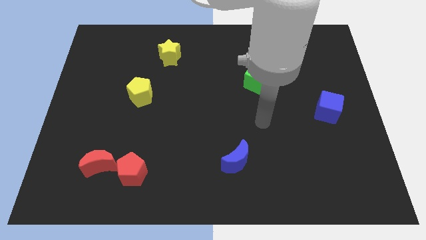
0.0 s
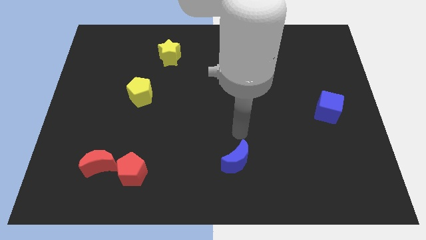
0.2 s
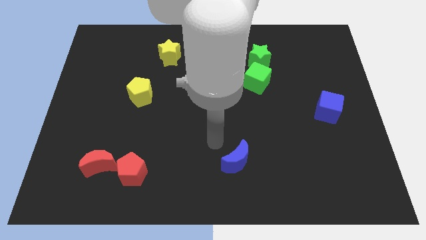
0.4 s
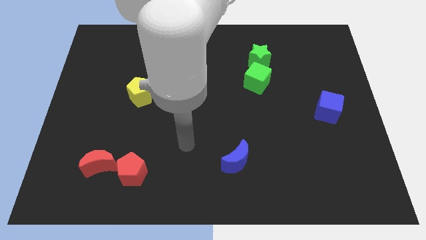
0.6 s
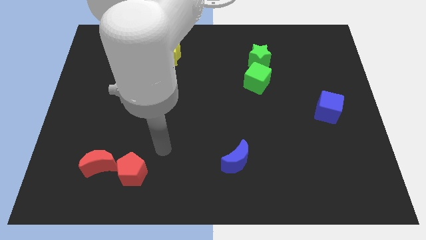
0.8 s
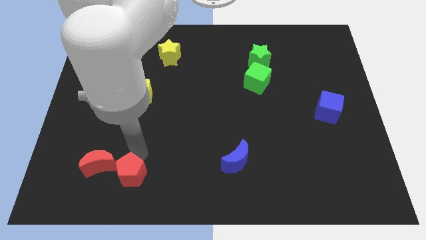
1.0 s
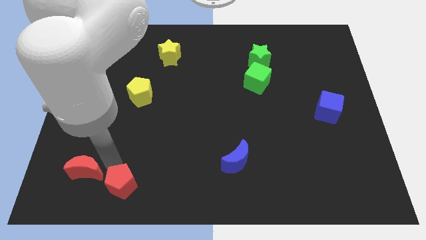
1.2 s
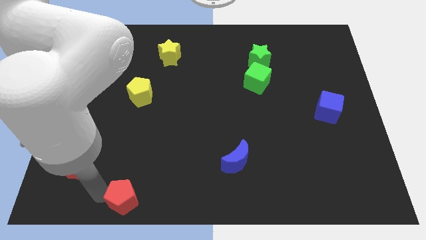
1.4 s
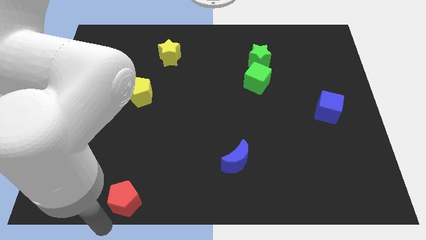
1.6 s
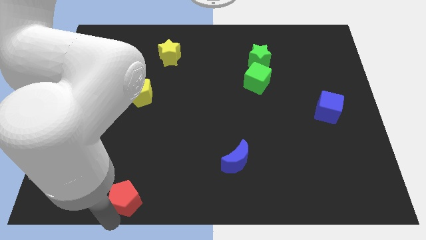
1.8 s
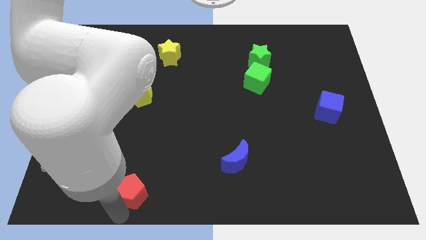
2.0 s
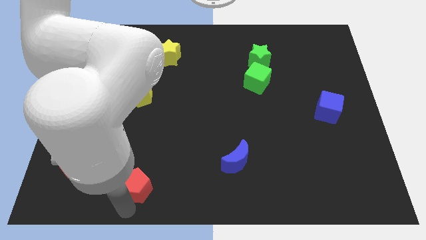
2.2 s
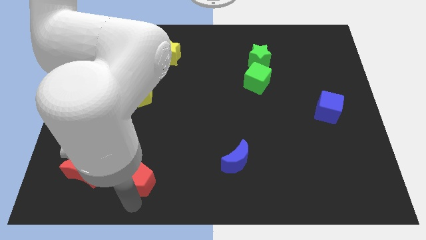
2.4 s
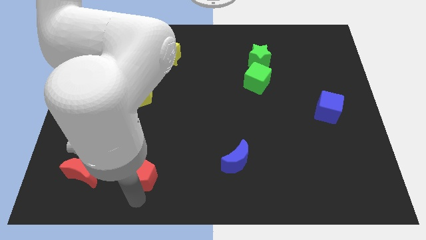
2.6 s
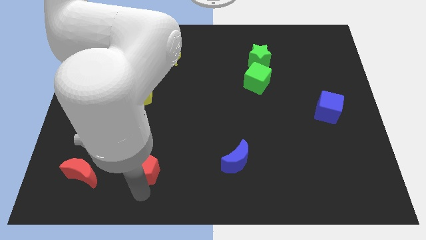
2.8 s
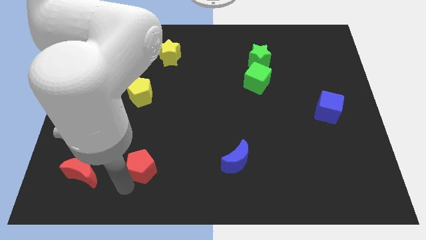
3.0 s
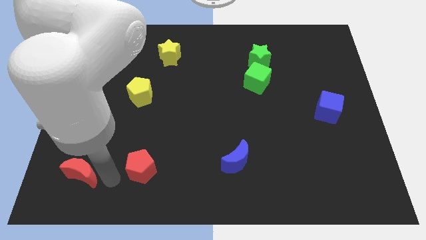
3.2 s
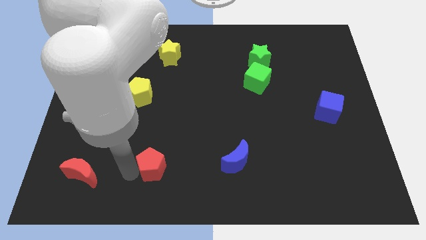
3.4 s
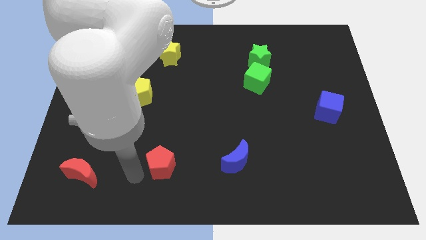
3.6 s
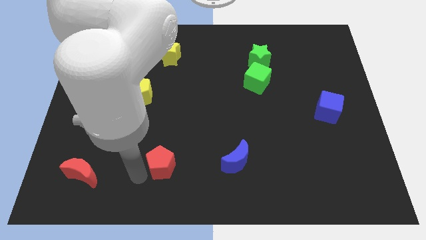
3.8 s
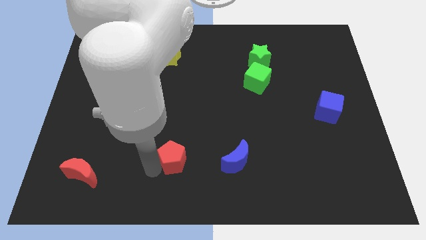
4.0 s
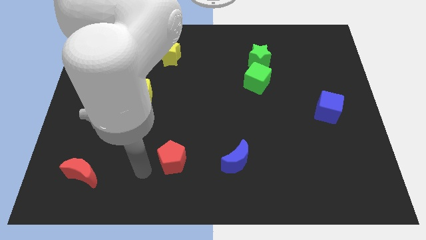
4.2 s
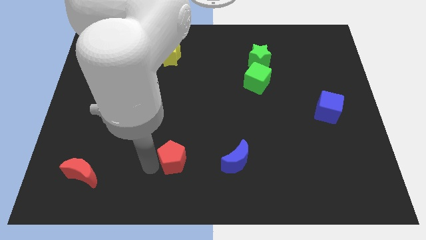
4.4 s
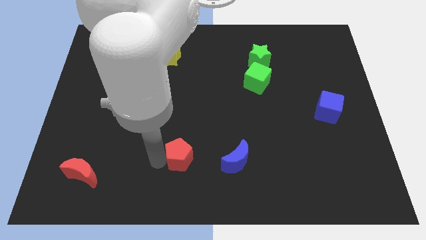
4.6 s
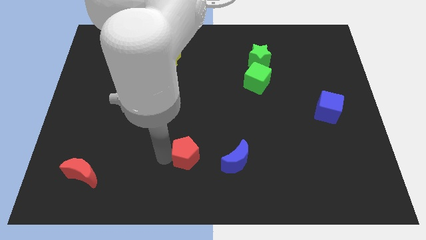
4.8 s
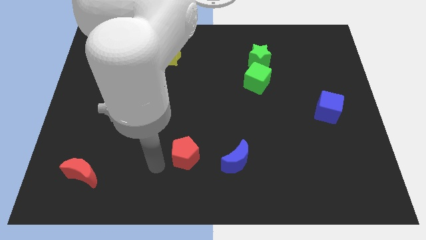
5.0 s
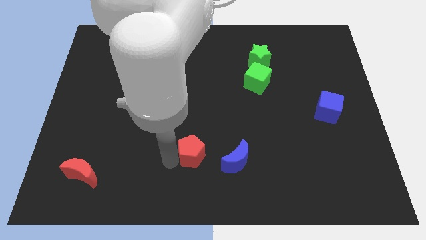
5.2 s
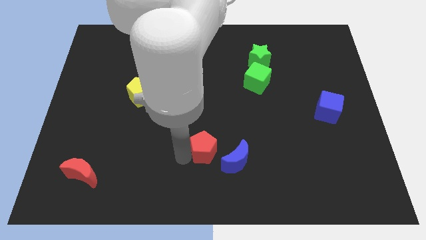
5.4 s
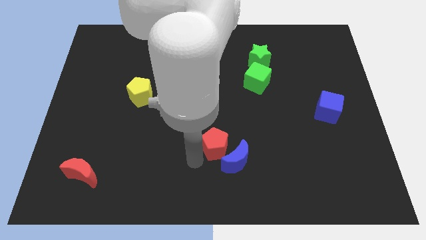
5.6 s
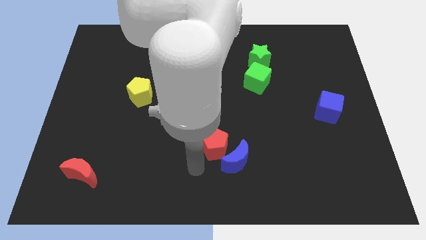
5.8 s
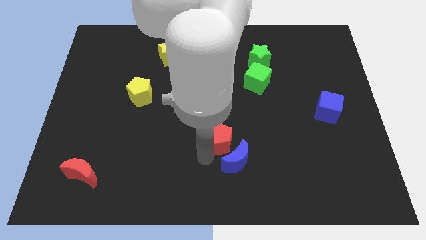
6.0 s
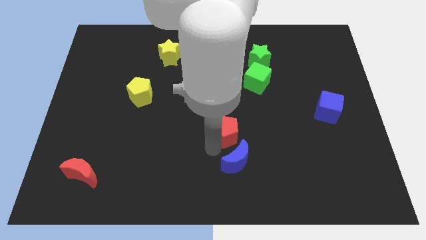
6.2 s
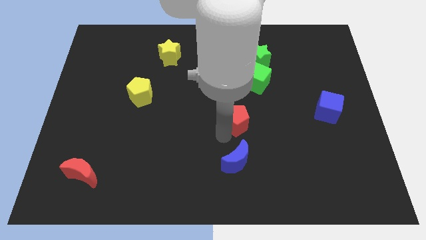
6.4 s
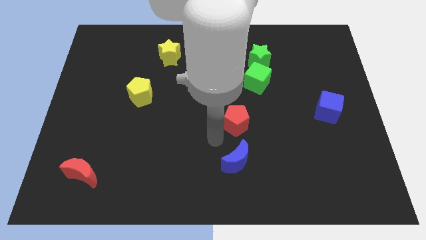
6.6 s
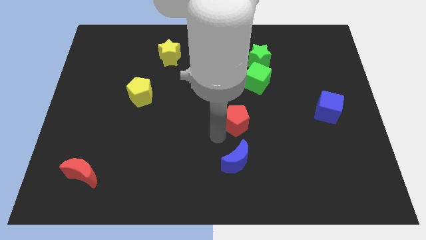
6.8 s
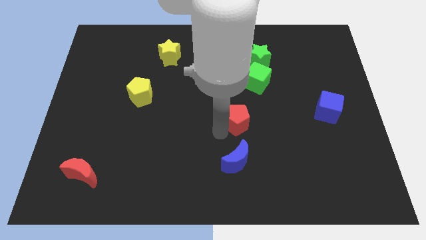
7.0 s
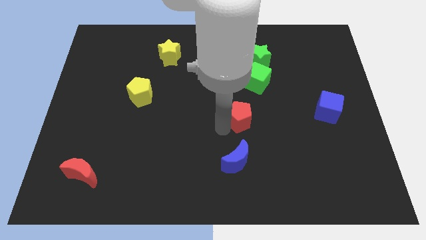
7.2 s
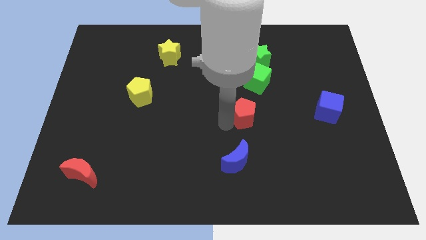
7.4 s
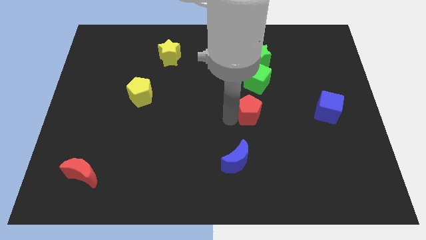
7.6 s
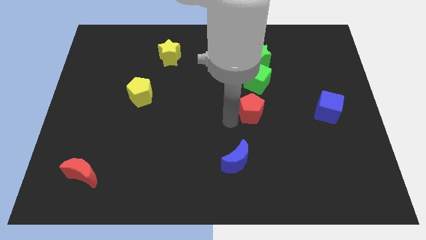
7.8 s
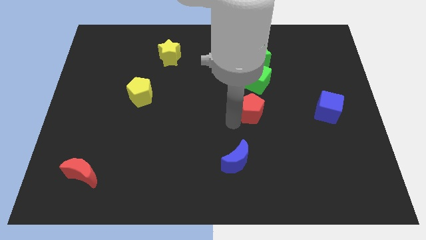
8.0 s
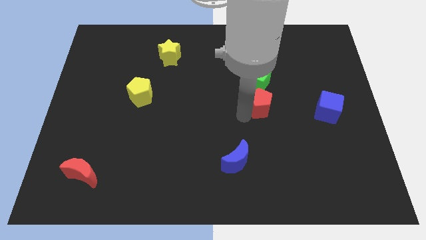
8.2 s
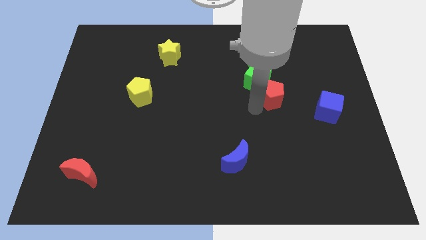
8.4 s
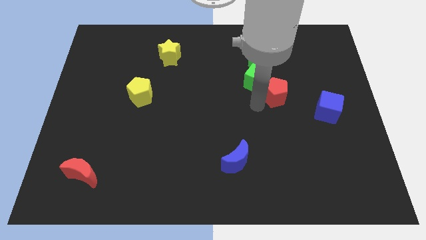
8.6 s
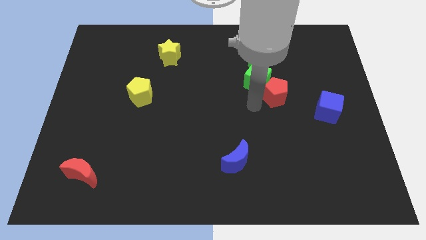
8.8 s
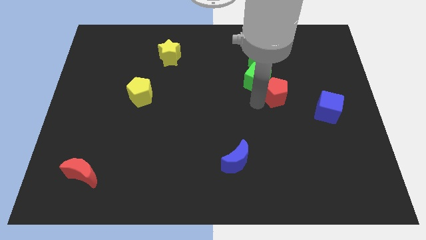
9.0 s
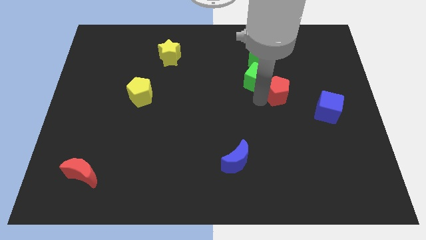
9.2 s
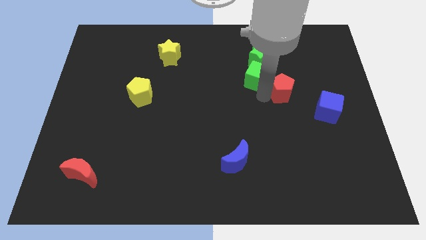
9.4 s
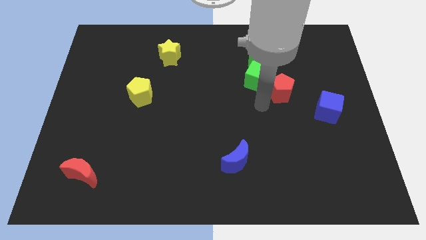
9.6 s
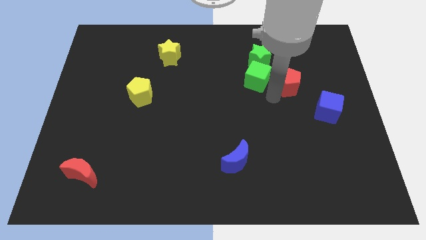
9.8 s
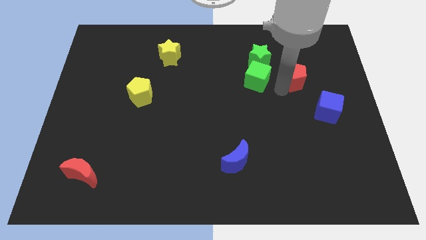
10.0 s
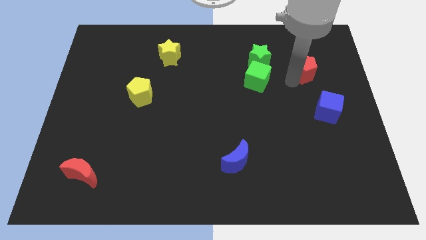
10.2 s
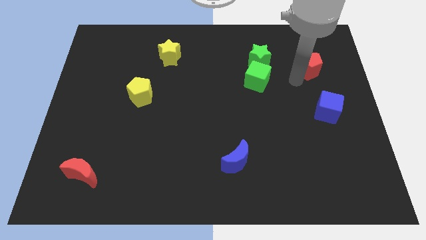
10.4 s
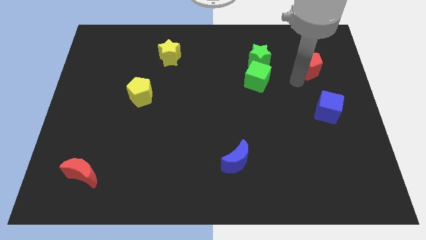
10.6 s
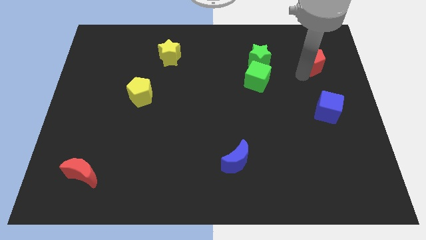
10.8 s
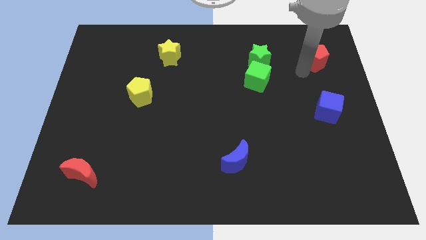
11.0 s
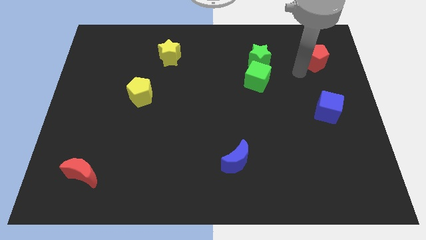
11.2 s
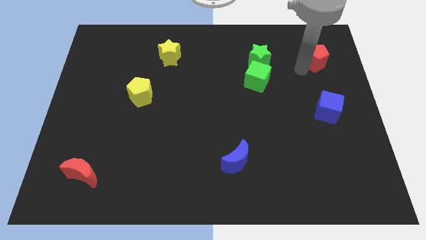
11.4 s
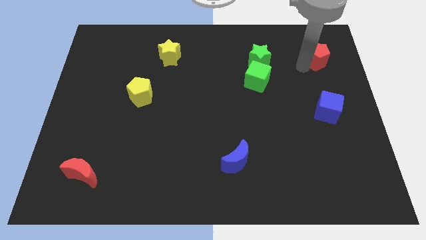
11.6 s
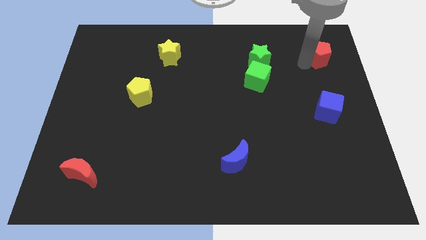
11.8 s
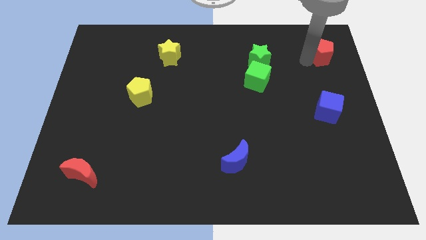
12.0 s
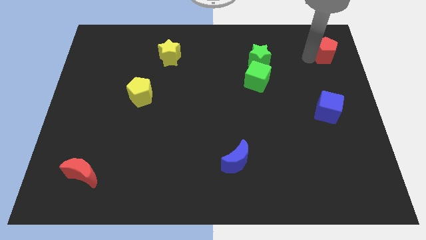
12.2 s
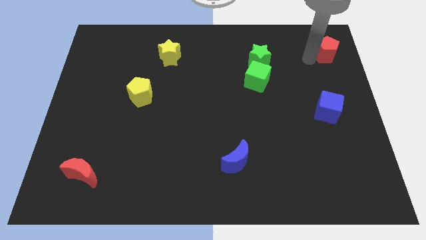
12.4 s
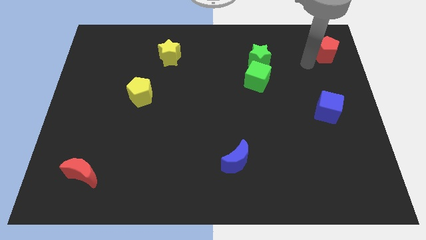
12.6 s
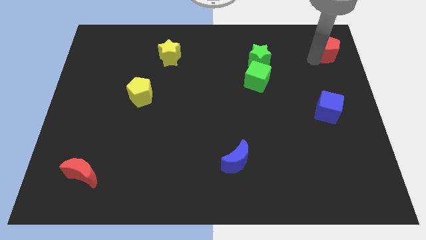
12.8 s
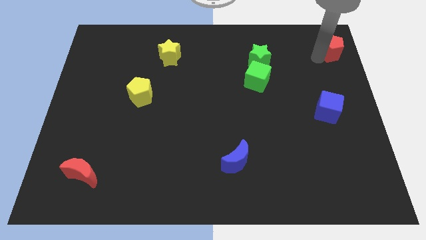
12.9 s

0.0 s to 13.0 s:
slide the red pentagon to the top right corner
